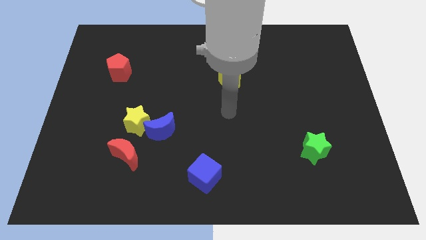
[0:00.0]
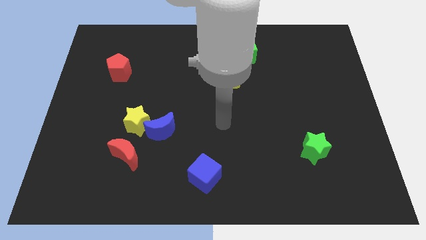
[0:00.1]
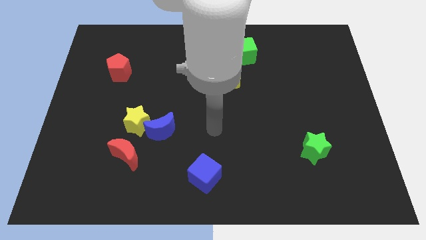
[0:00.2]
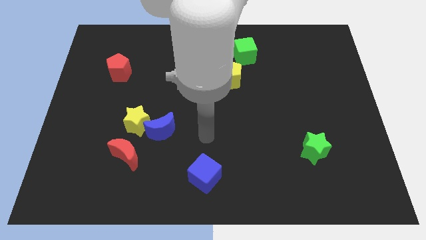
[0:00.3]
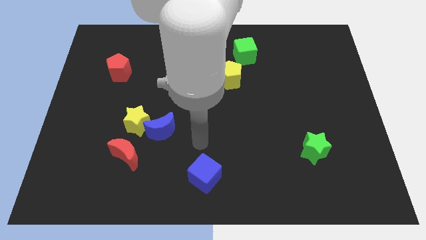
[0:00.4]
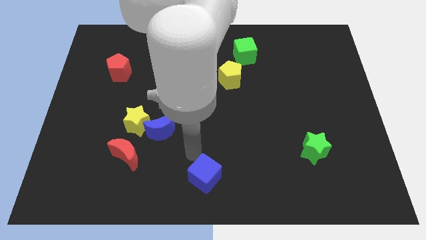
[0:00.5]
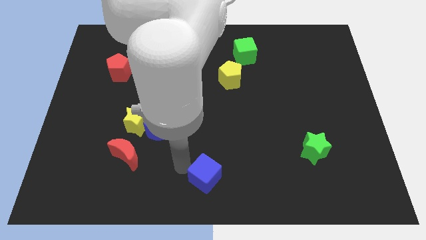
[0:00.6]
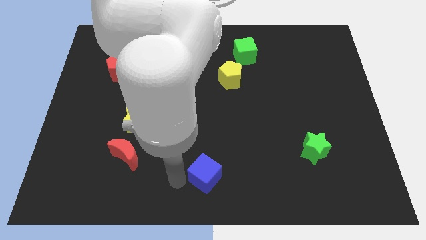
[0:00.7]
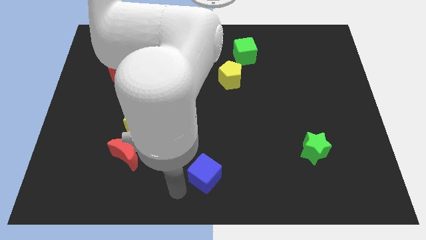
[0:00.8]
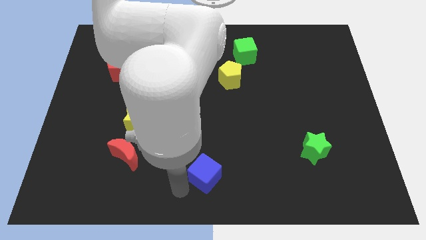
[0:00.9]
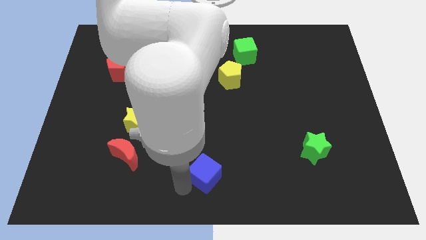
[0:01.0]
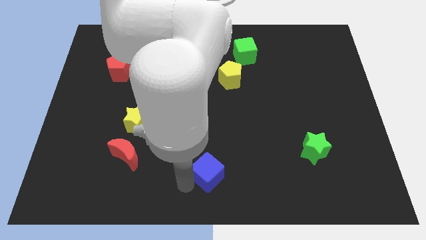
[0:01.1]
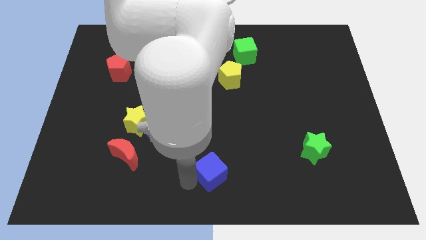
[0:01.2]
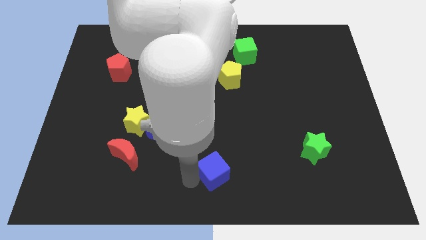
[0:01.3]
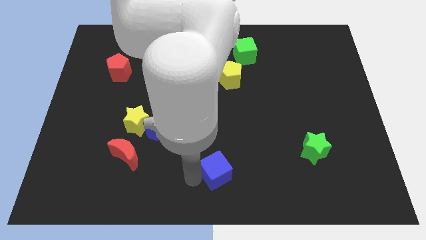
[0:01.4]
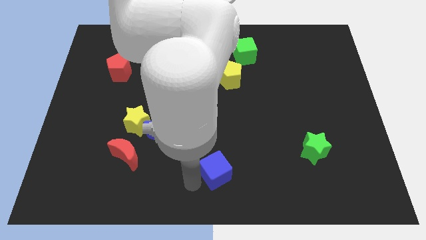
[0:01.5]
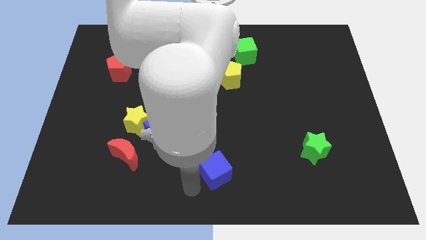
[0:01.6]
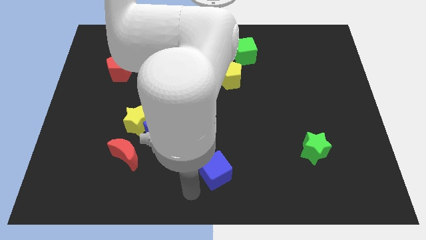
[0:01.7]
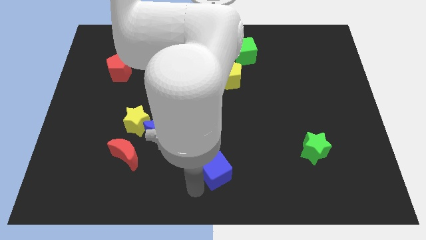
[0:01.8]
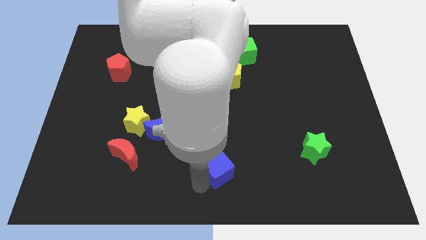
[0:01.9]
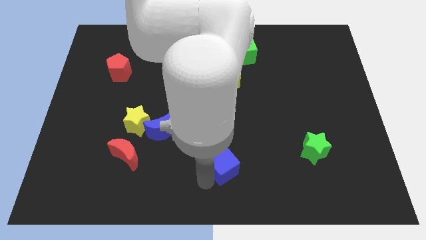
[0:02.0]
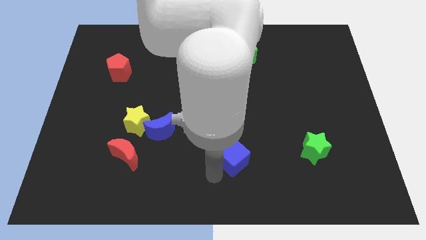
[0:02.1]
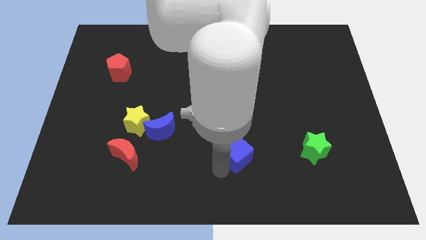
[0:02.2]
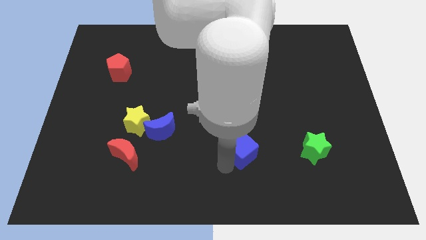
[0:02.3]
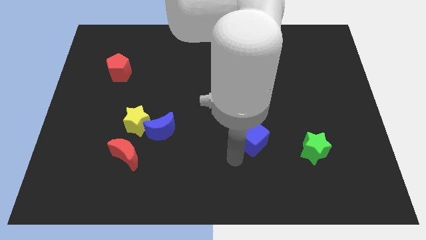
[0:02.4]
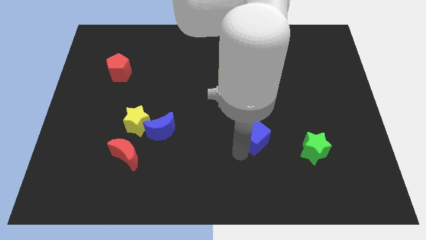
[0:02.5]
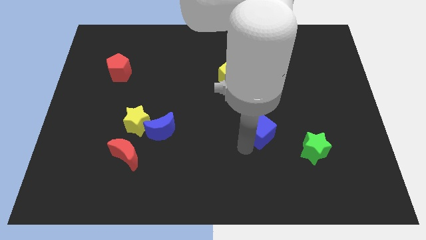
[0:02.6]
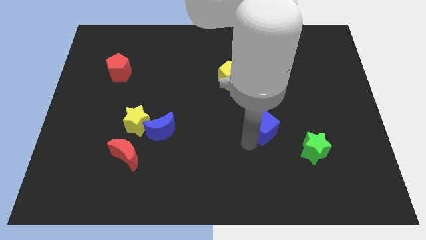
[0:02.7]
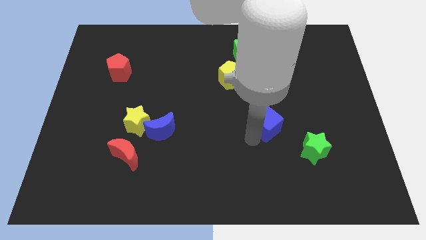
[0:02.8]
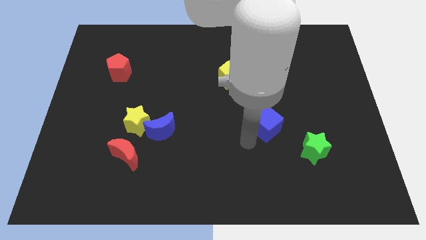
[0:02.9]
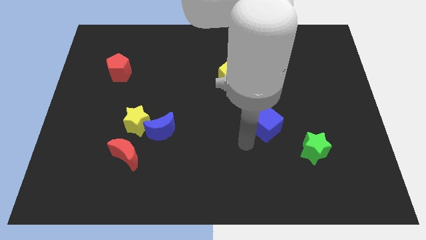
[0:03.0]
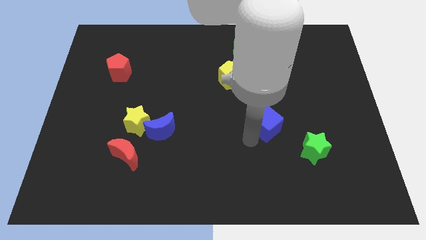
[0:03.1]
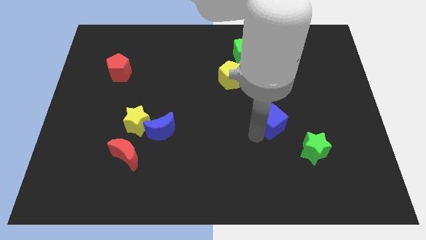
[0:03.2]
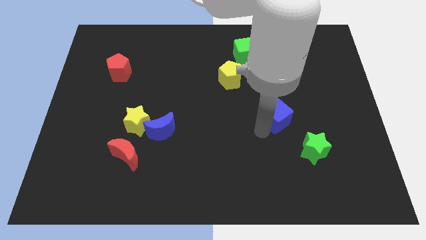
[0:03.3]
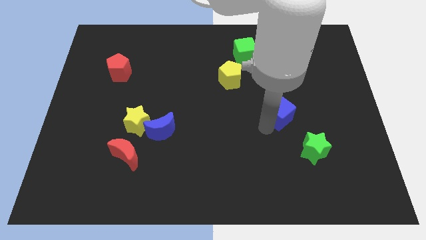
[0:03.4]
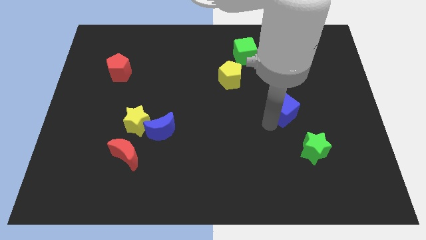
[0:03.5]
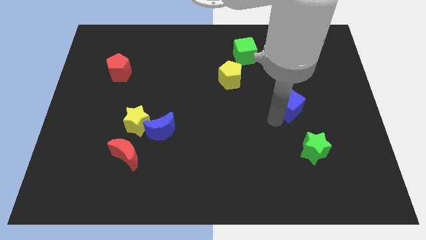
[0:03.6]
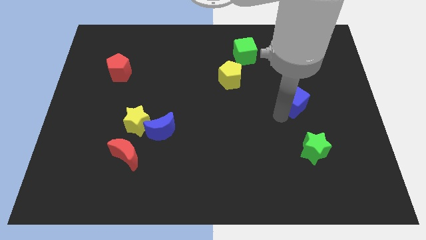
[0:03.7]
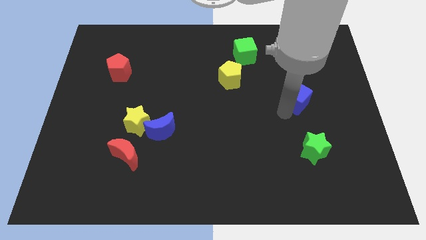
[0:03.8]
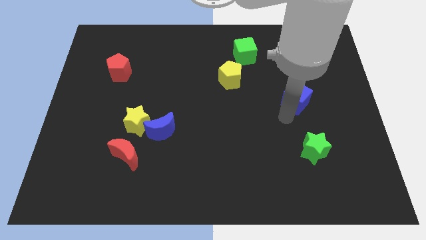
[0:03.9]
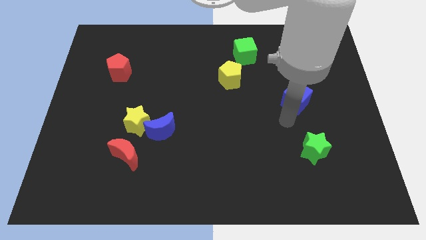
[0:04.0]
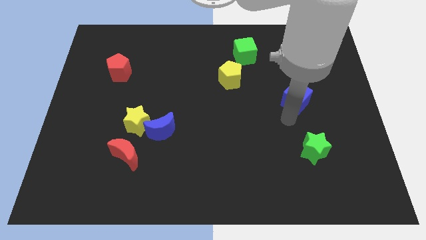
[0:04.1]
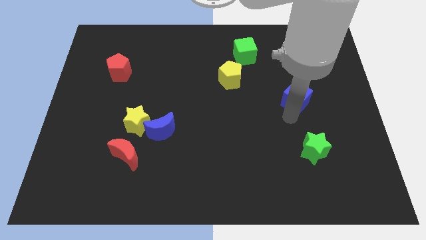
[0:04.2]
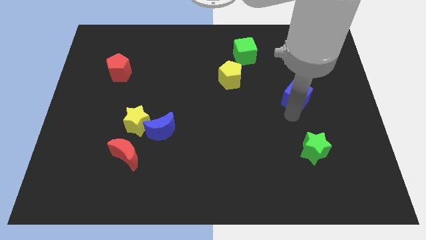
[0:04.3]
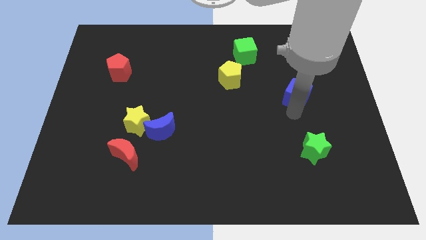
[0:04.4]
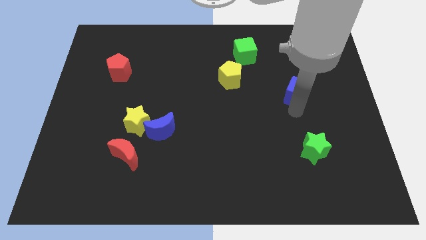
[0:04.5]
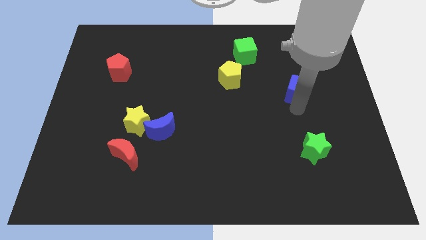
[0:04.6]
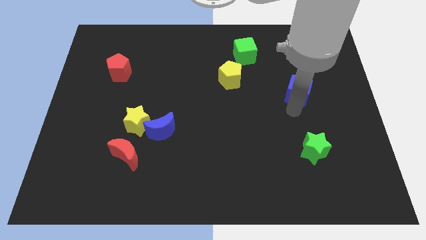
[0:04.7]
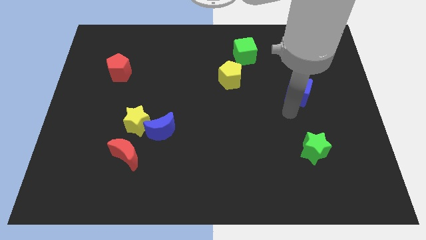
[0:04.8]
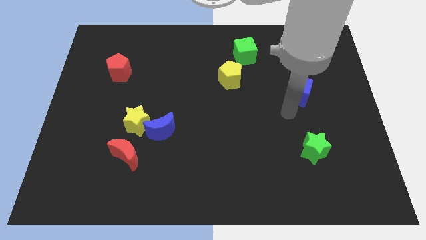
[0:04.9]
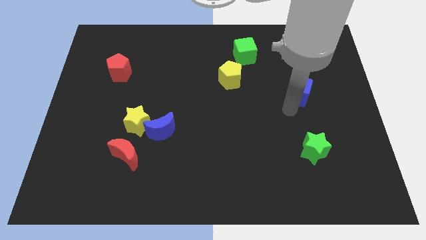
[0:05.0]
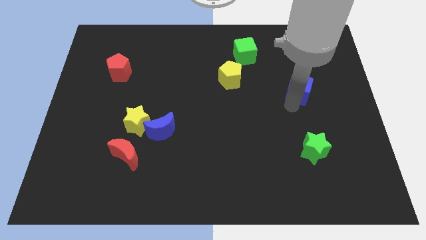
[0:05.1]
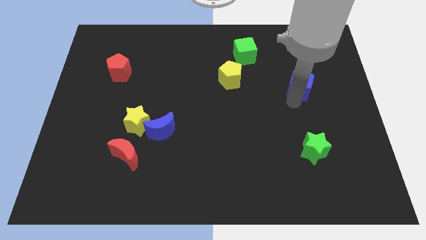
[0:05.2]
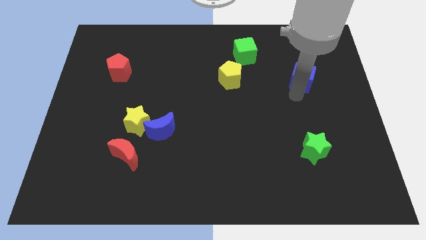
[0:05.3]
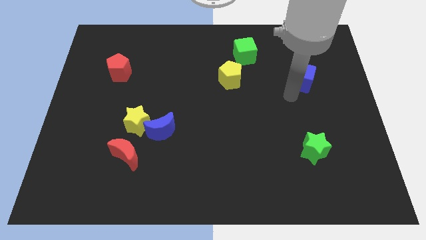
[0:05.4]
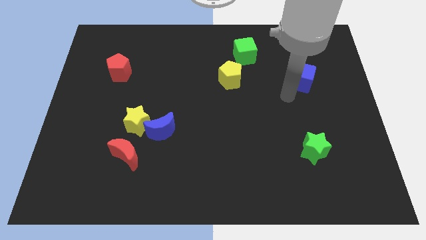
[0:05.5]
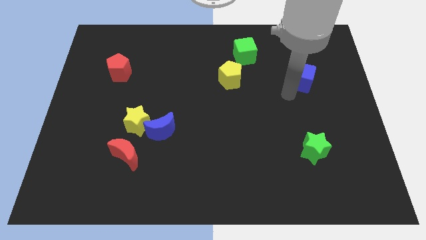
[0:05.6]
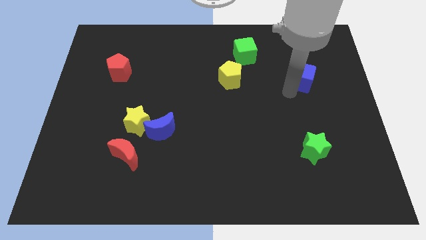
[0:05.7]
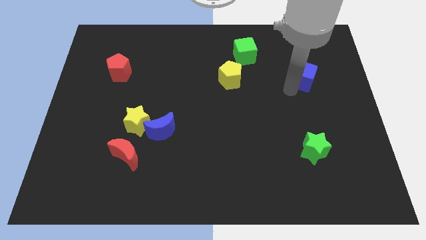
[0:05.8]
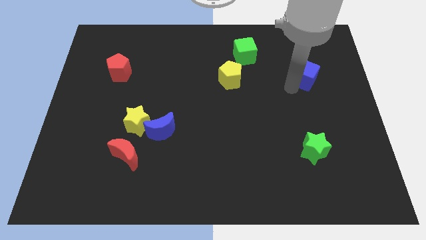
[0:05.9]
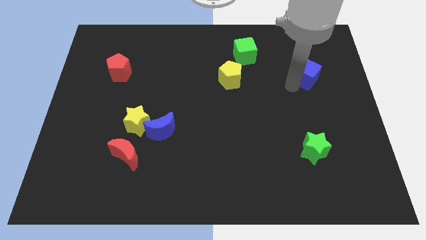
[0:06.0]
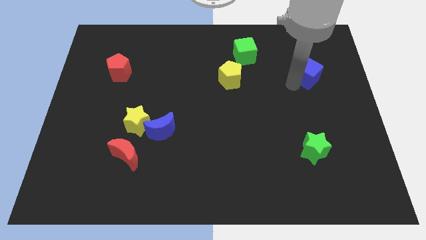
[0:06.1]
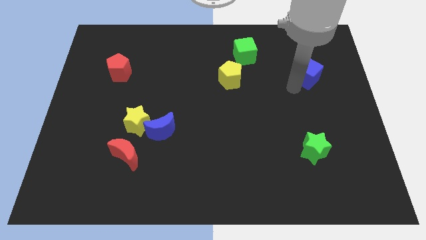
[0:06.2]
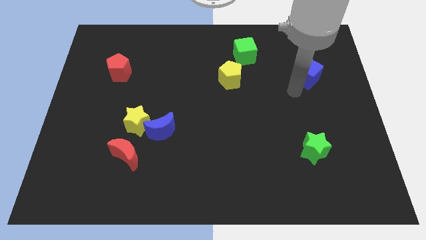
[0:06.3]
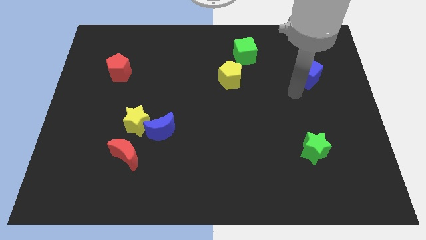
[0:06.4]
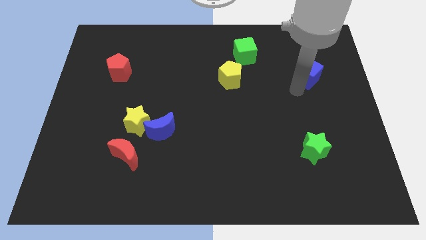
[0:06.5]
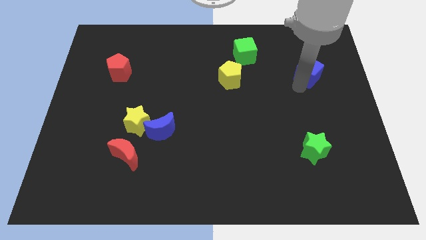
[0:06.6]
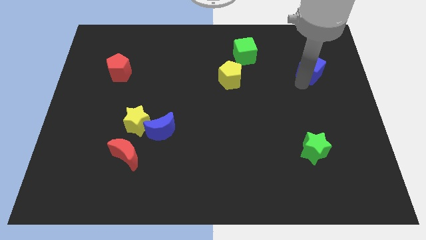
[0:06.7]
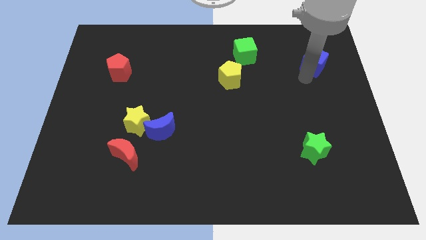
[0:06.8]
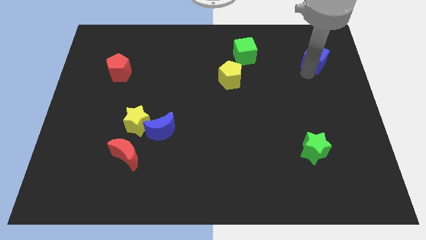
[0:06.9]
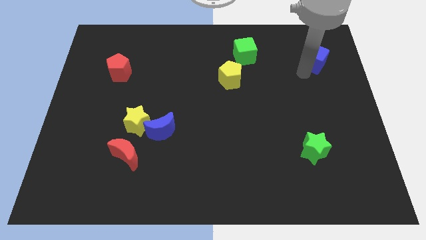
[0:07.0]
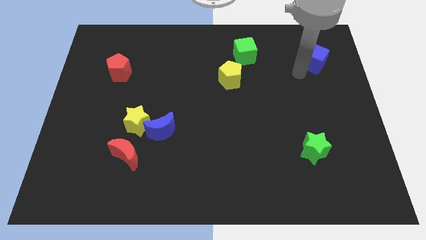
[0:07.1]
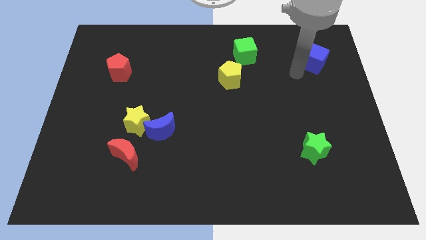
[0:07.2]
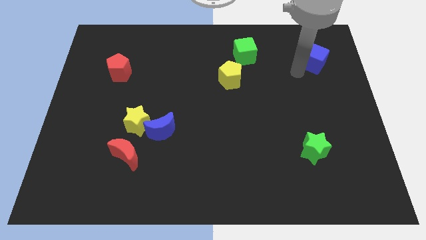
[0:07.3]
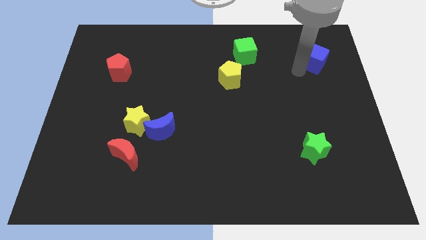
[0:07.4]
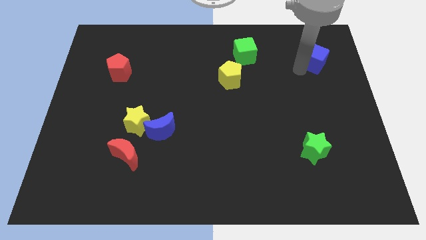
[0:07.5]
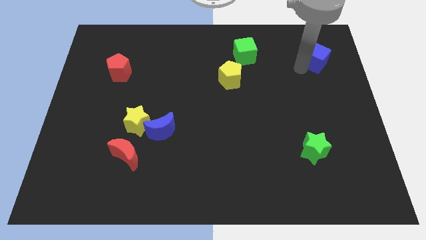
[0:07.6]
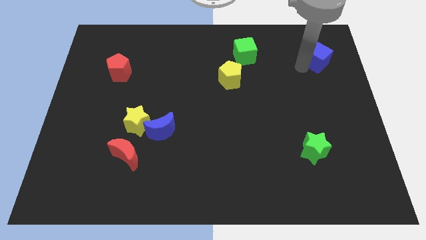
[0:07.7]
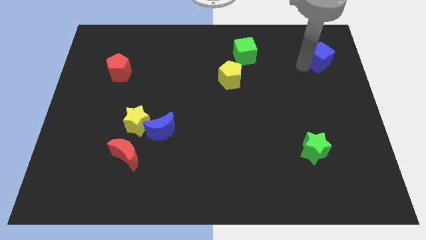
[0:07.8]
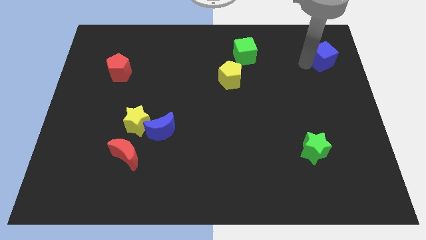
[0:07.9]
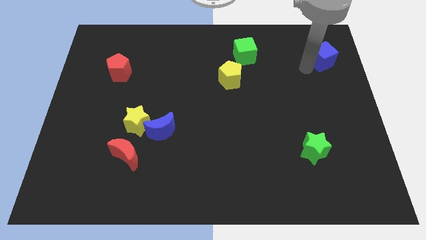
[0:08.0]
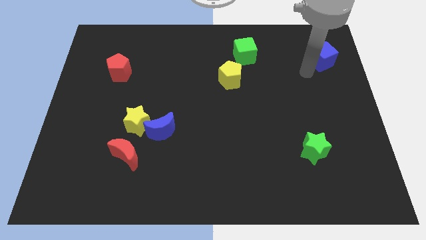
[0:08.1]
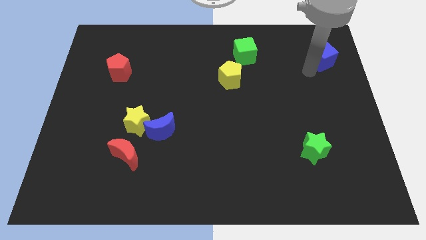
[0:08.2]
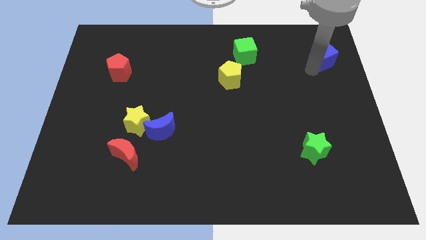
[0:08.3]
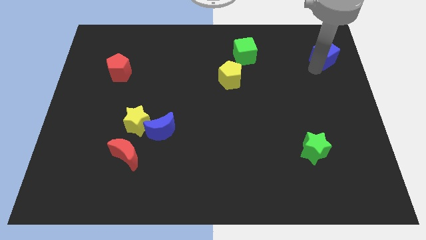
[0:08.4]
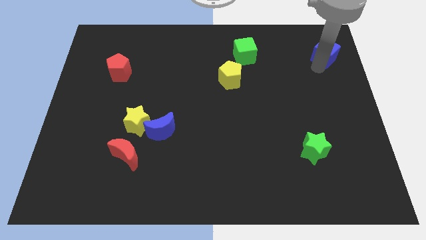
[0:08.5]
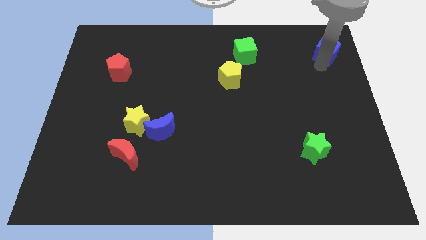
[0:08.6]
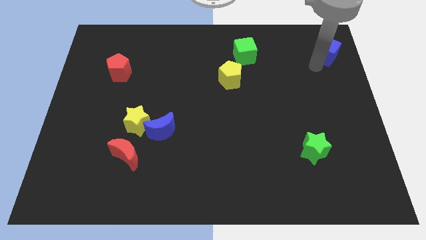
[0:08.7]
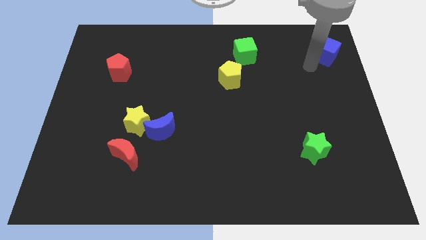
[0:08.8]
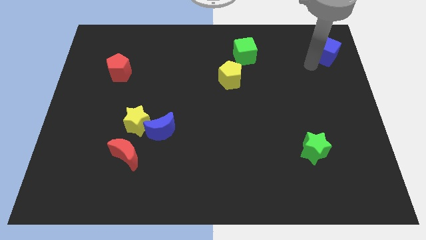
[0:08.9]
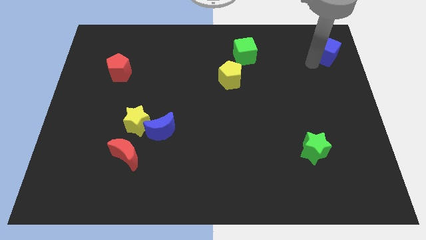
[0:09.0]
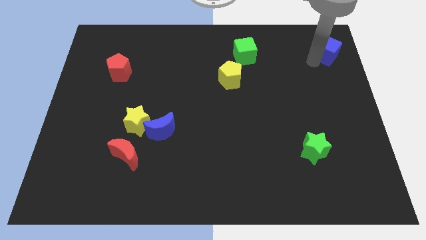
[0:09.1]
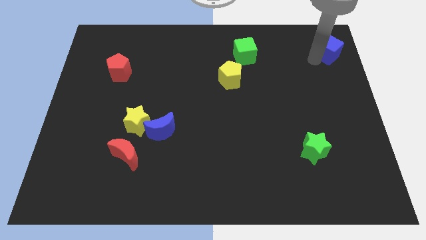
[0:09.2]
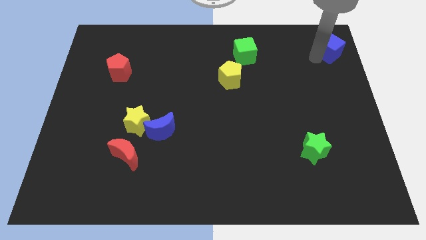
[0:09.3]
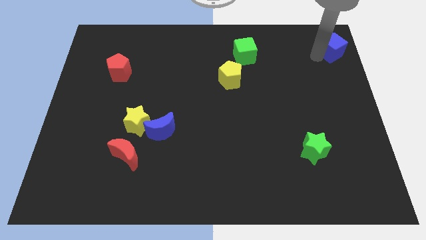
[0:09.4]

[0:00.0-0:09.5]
put the blue cube to the top right of the board
